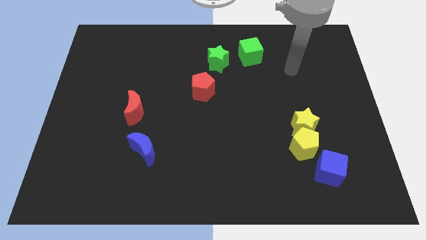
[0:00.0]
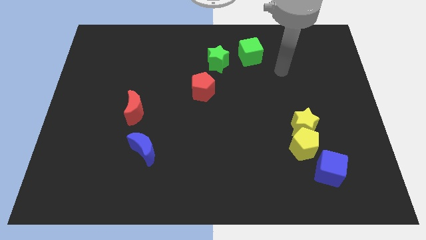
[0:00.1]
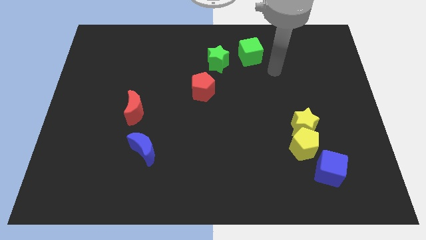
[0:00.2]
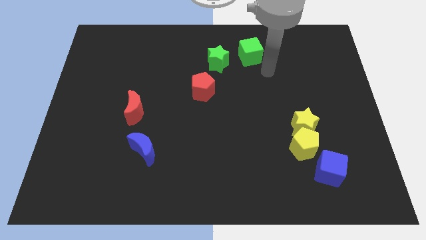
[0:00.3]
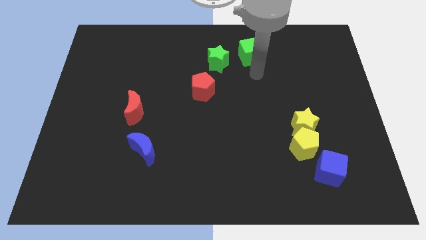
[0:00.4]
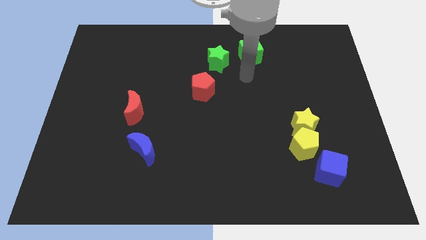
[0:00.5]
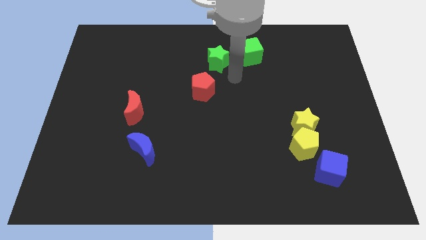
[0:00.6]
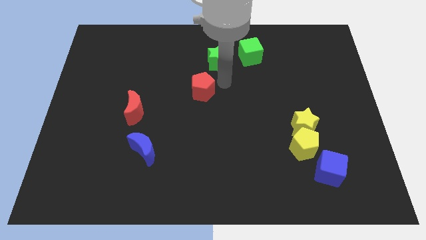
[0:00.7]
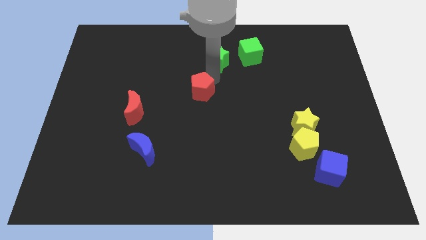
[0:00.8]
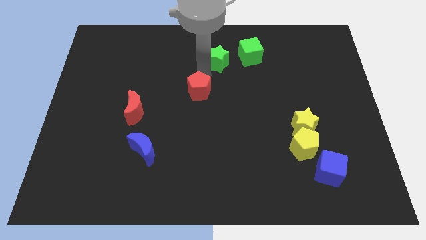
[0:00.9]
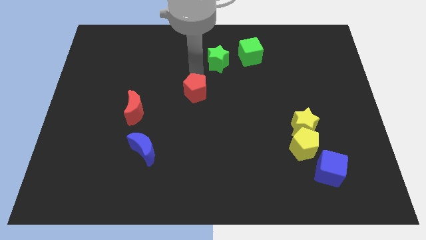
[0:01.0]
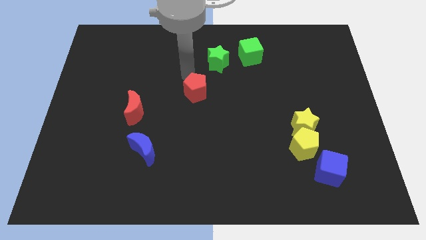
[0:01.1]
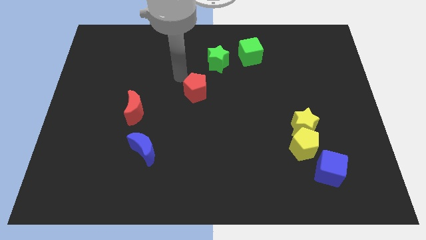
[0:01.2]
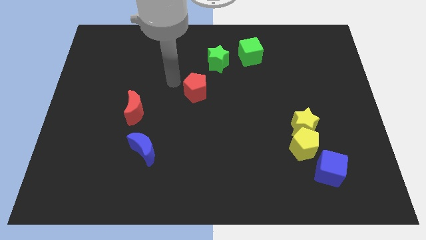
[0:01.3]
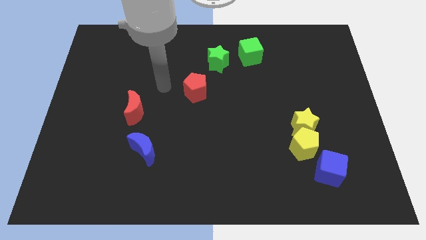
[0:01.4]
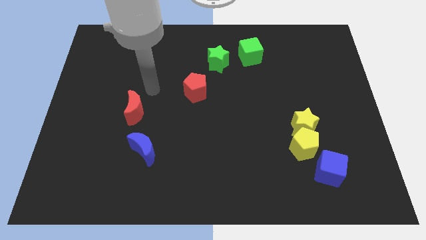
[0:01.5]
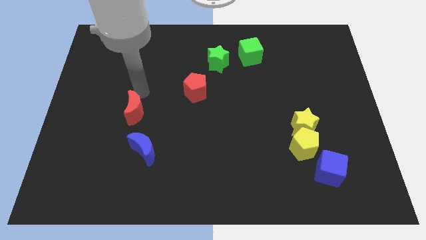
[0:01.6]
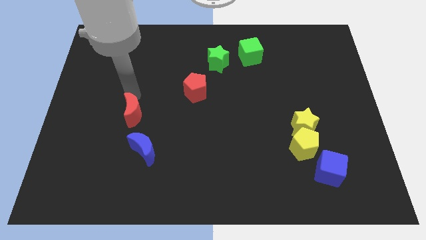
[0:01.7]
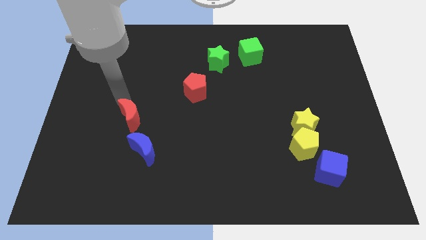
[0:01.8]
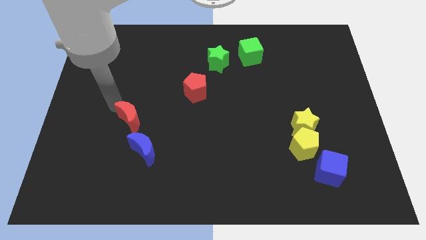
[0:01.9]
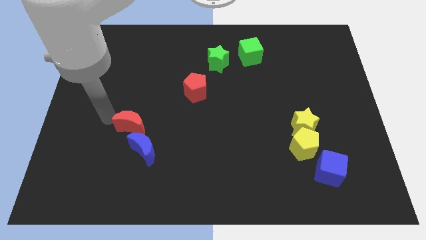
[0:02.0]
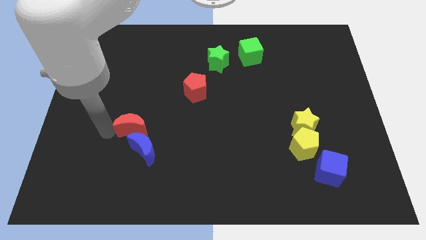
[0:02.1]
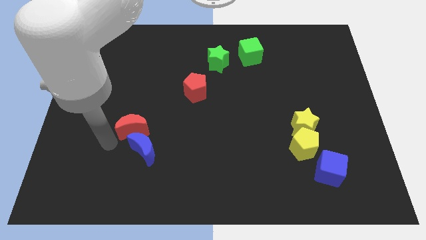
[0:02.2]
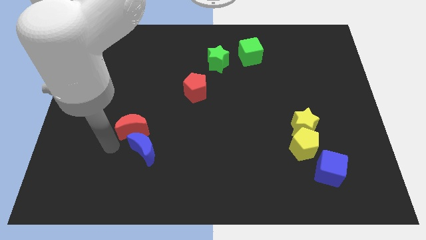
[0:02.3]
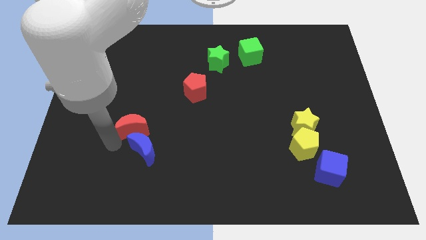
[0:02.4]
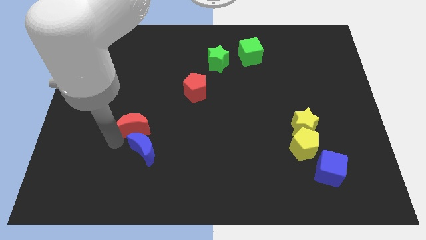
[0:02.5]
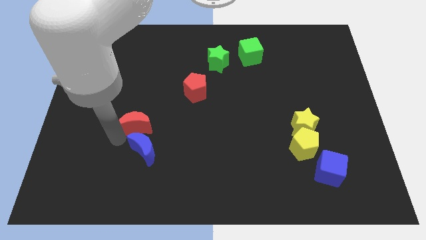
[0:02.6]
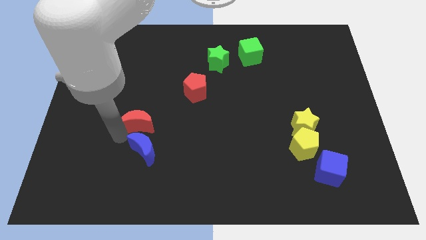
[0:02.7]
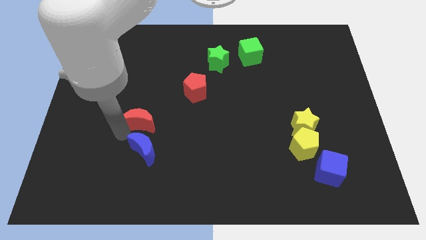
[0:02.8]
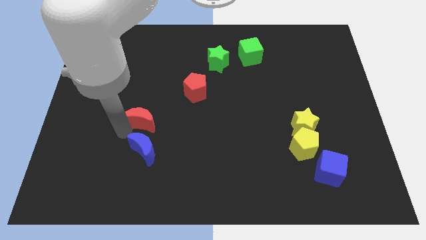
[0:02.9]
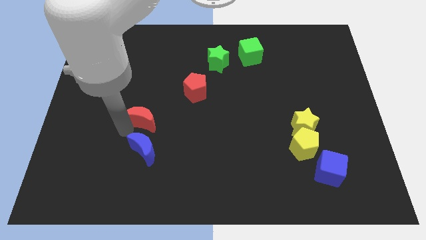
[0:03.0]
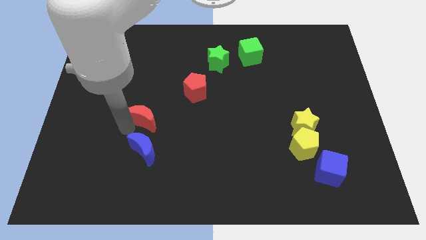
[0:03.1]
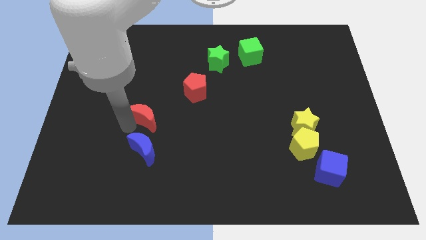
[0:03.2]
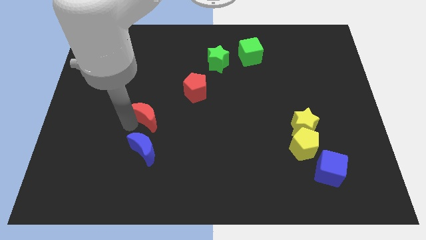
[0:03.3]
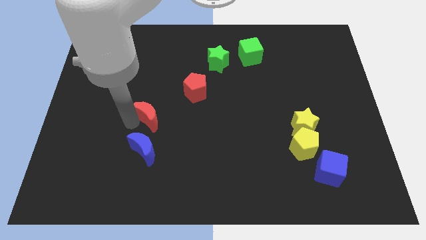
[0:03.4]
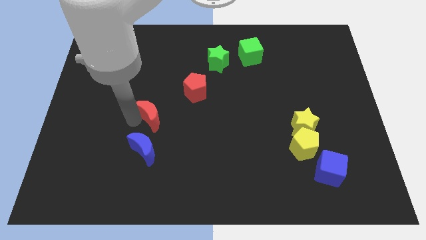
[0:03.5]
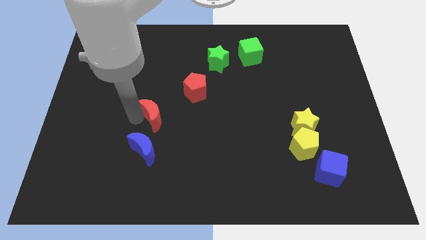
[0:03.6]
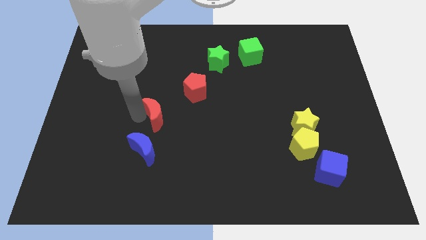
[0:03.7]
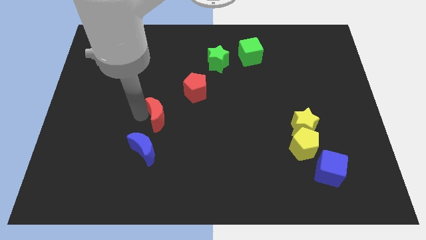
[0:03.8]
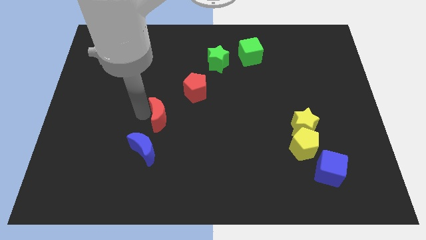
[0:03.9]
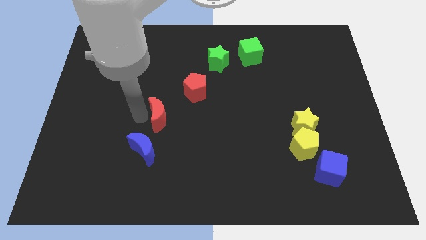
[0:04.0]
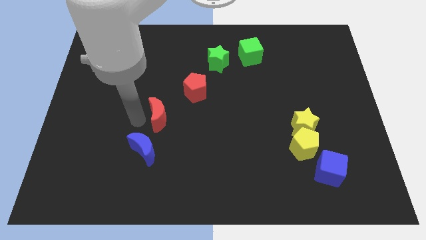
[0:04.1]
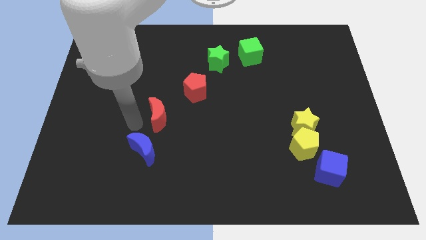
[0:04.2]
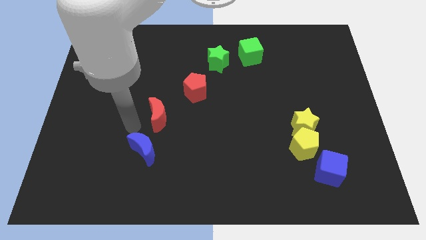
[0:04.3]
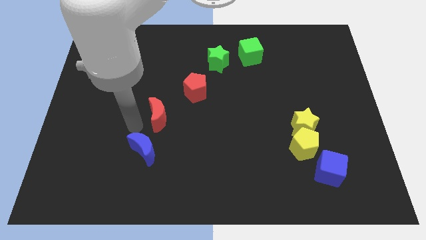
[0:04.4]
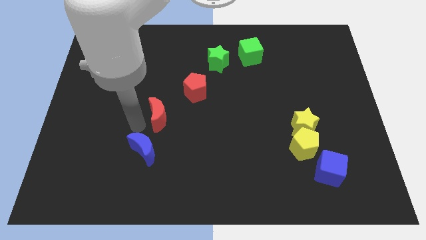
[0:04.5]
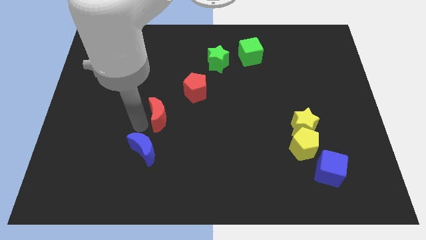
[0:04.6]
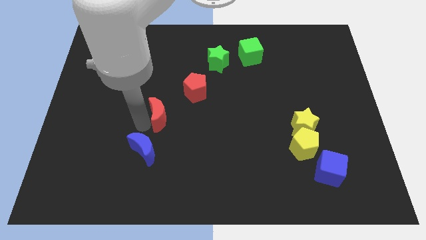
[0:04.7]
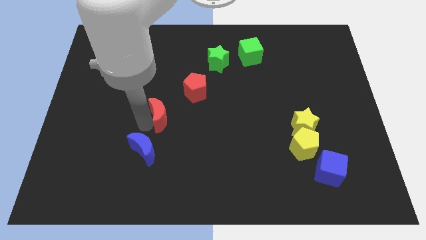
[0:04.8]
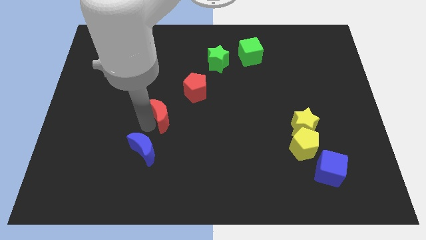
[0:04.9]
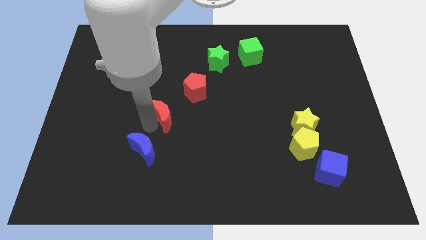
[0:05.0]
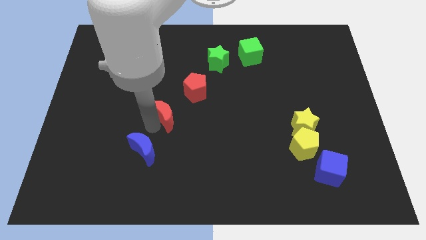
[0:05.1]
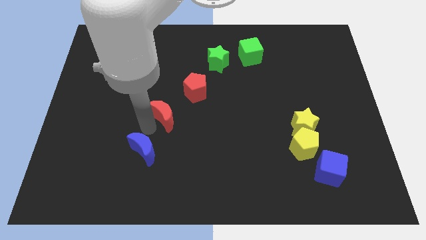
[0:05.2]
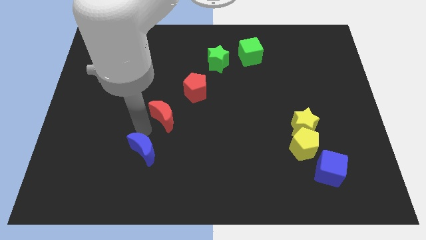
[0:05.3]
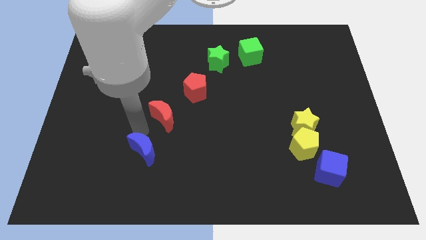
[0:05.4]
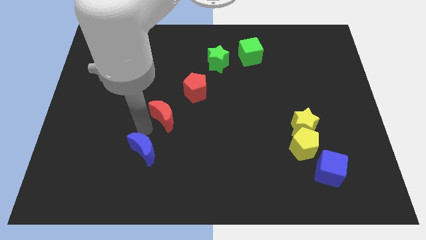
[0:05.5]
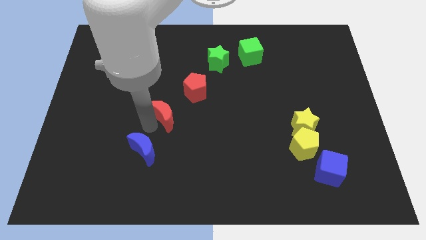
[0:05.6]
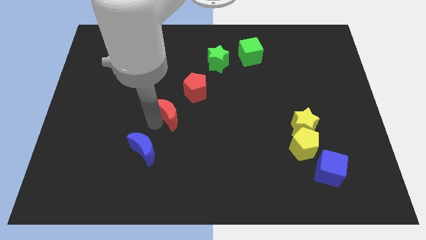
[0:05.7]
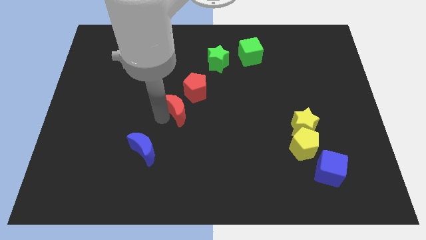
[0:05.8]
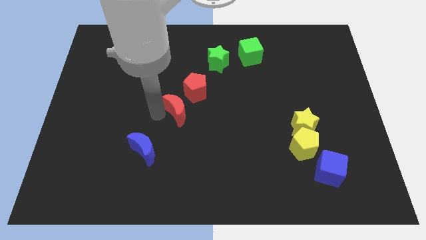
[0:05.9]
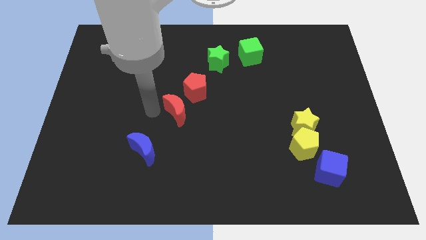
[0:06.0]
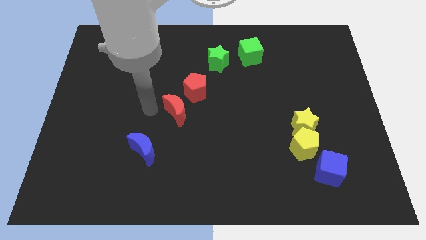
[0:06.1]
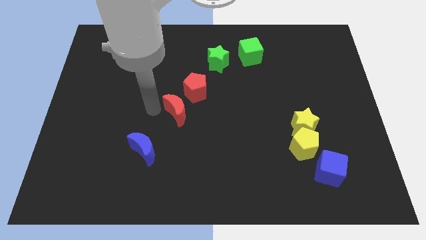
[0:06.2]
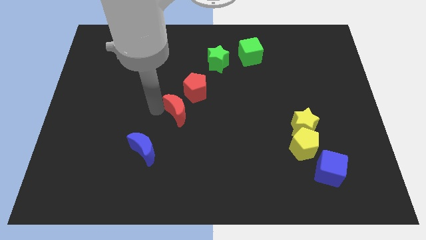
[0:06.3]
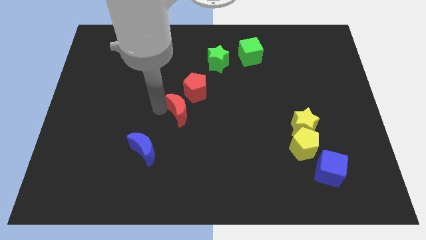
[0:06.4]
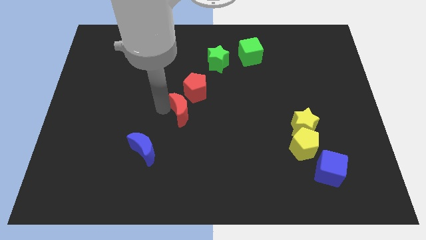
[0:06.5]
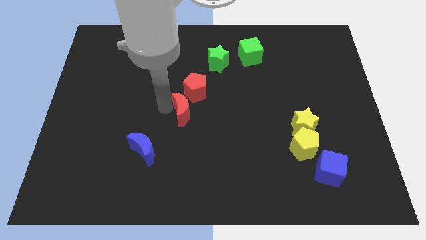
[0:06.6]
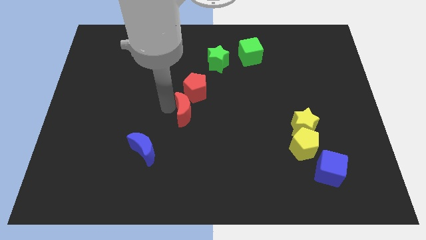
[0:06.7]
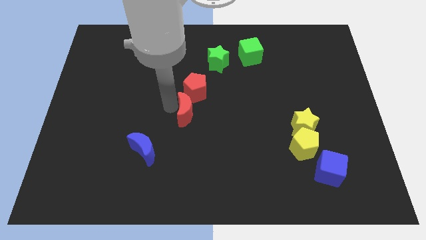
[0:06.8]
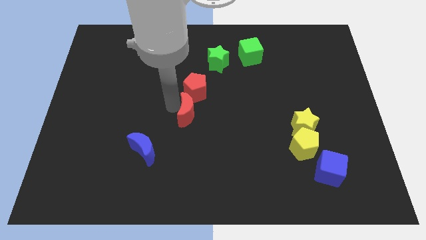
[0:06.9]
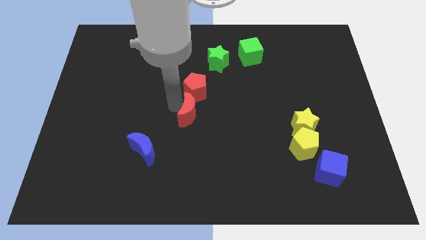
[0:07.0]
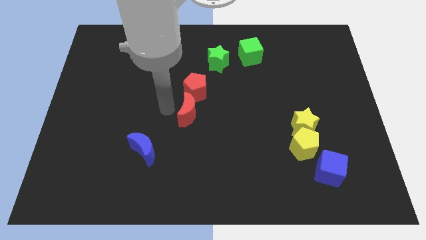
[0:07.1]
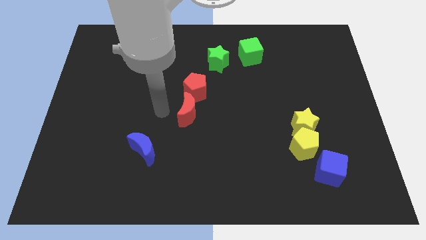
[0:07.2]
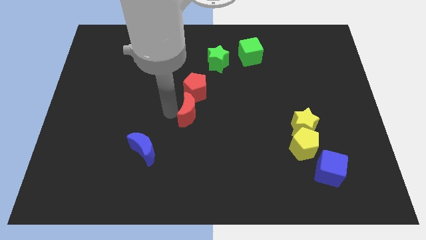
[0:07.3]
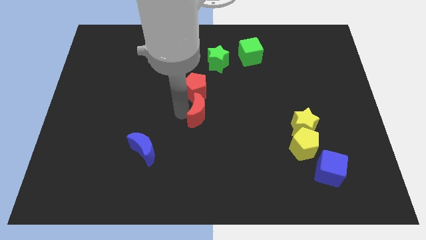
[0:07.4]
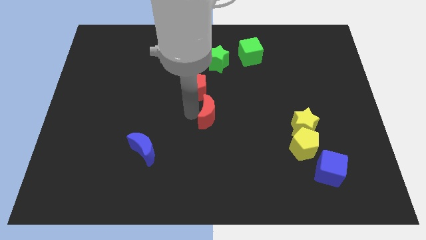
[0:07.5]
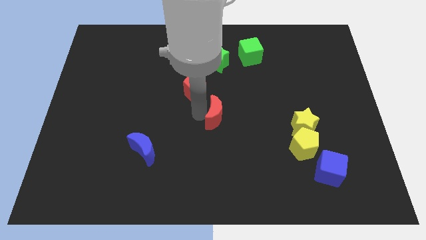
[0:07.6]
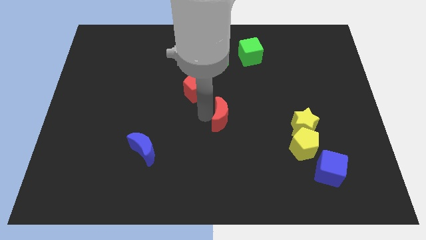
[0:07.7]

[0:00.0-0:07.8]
slide the red moon to the right

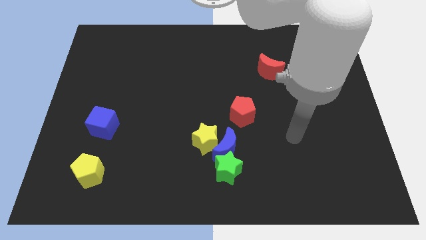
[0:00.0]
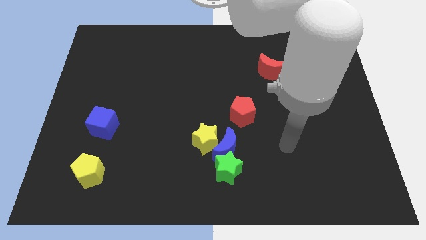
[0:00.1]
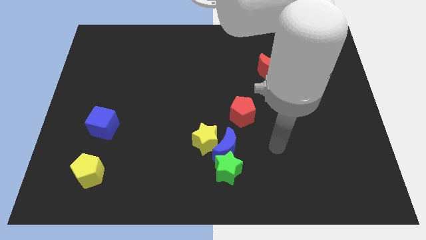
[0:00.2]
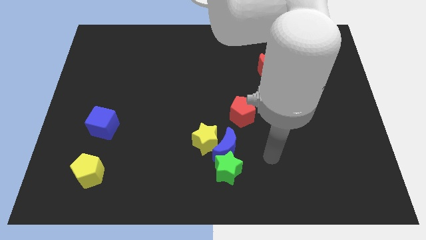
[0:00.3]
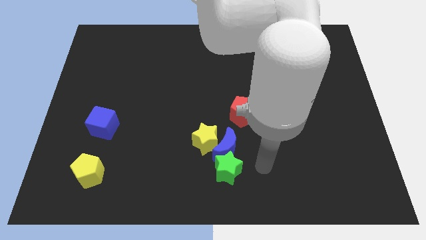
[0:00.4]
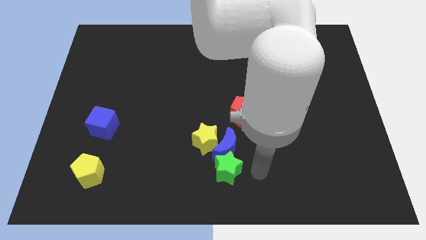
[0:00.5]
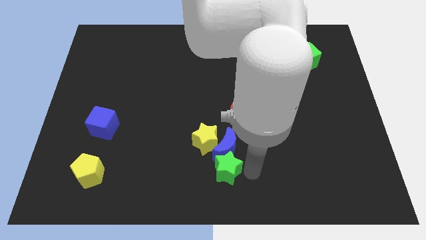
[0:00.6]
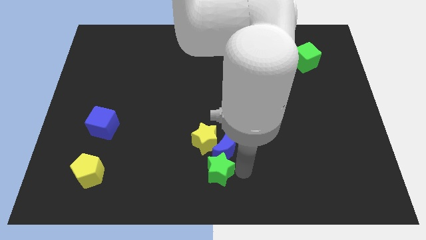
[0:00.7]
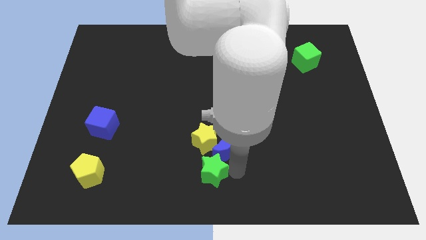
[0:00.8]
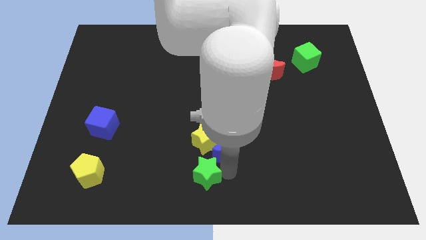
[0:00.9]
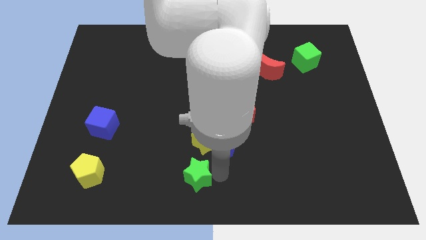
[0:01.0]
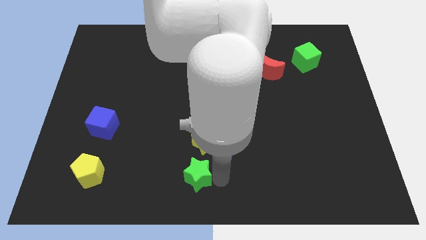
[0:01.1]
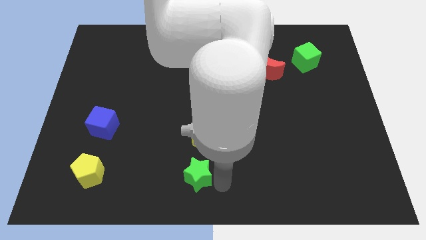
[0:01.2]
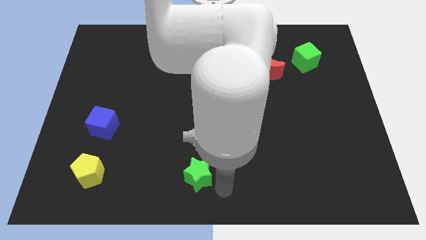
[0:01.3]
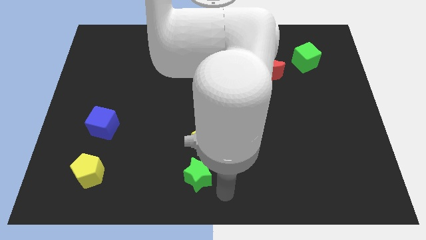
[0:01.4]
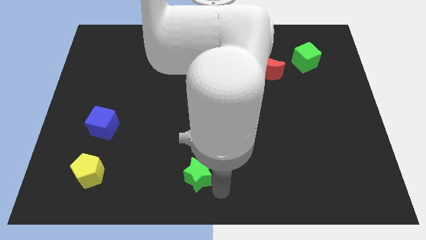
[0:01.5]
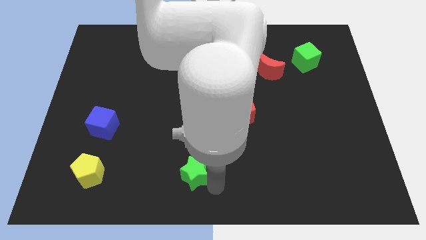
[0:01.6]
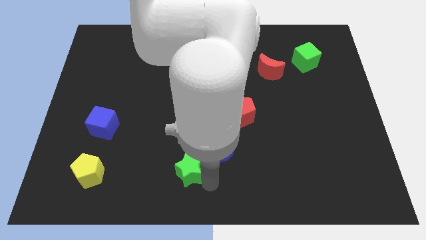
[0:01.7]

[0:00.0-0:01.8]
slightly move the green star to the left
